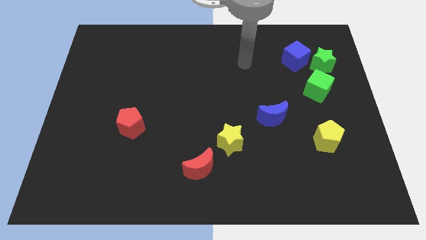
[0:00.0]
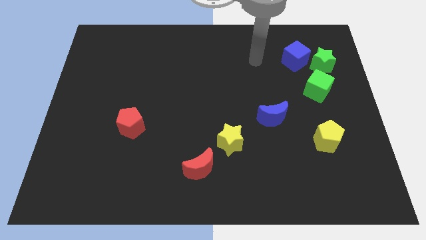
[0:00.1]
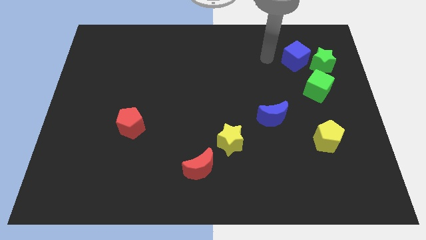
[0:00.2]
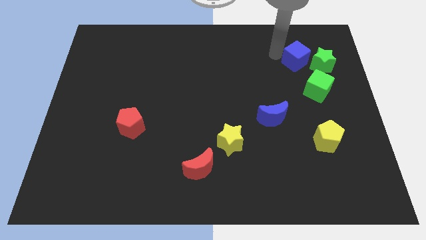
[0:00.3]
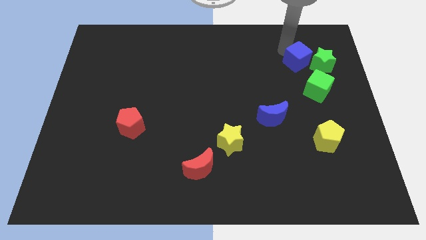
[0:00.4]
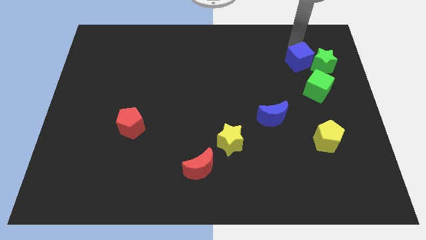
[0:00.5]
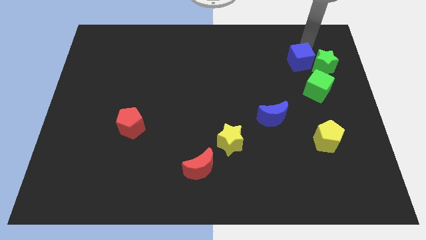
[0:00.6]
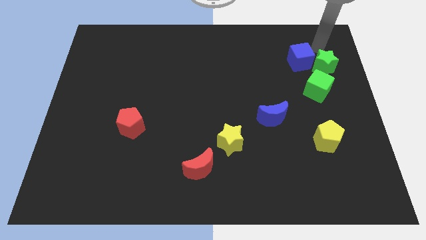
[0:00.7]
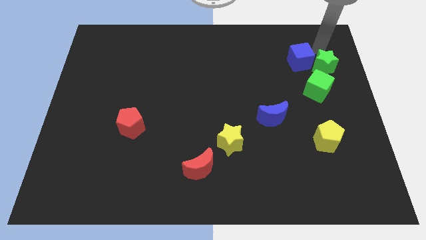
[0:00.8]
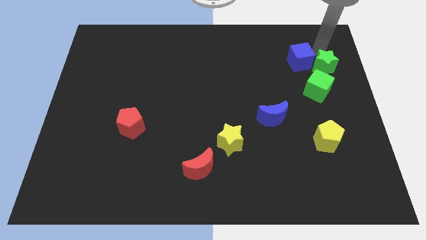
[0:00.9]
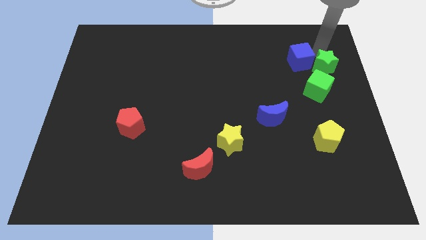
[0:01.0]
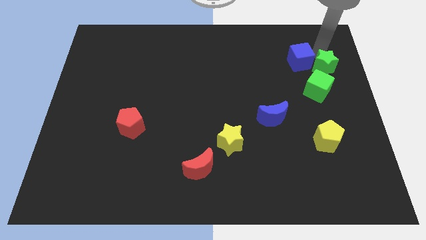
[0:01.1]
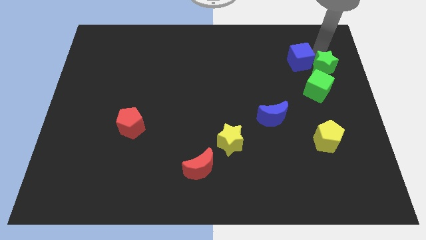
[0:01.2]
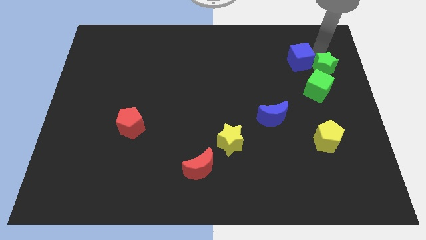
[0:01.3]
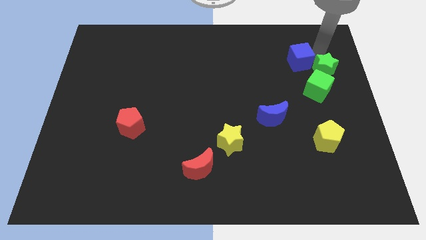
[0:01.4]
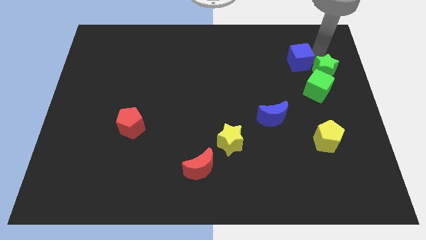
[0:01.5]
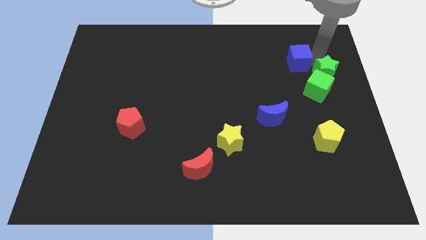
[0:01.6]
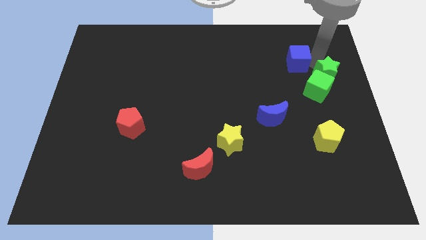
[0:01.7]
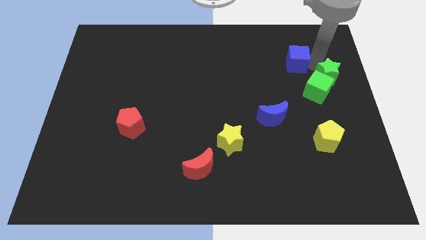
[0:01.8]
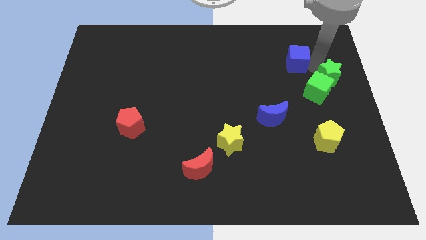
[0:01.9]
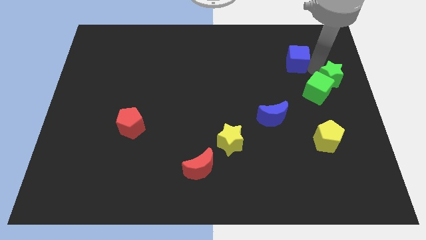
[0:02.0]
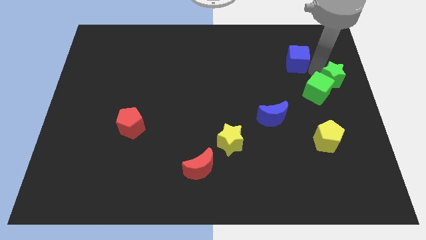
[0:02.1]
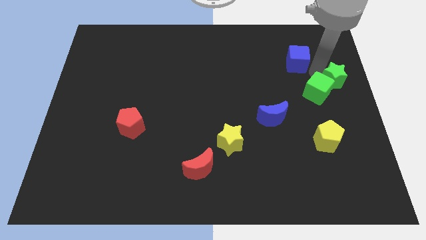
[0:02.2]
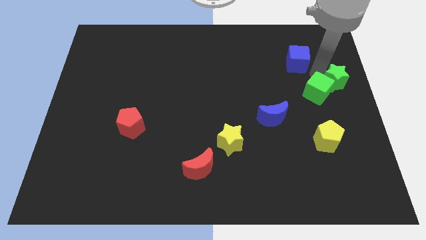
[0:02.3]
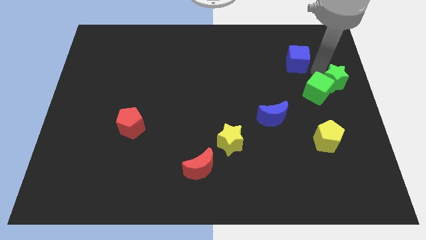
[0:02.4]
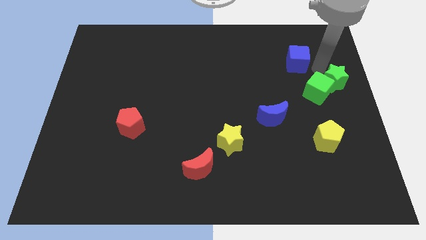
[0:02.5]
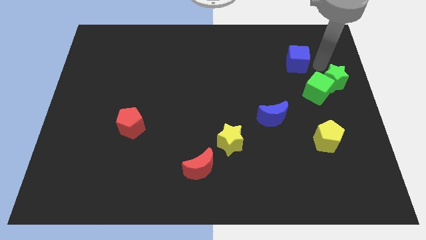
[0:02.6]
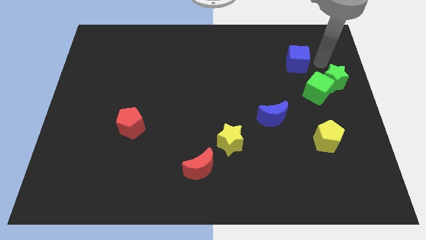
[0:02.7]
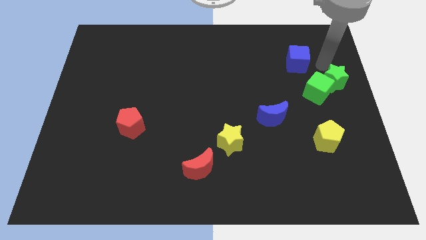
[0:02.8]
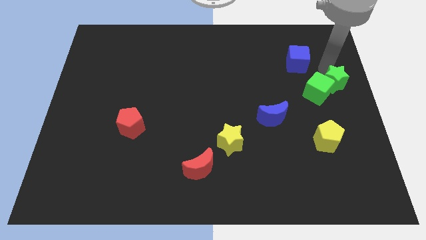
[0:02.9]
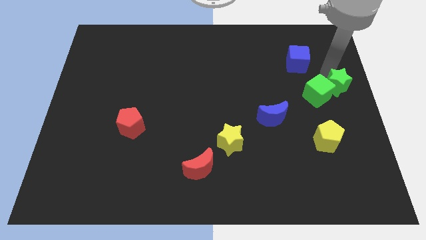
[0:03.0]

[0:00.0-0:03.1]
push the green star a bit down

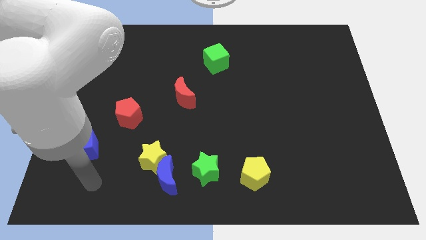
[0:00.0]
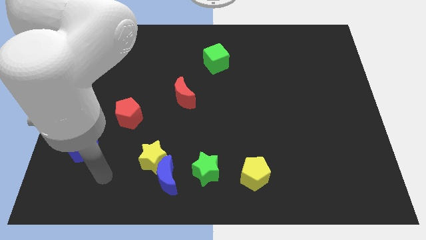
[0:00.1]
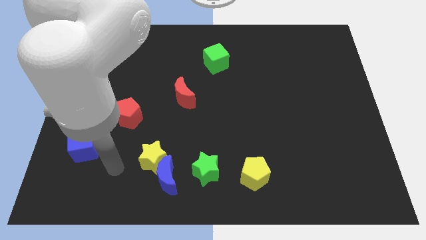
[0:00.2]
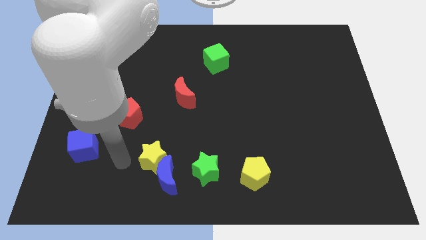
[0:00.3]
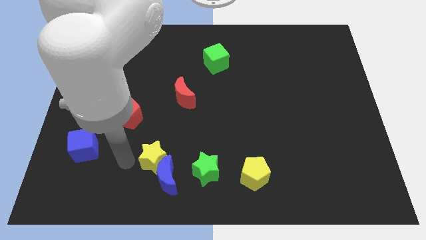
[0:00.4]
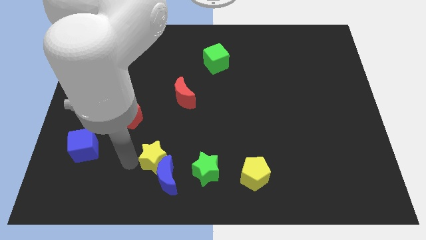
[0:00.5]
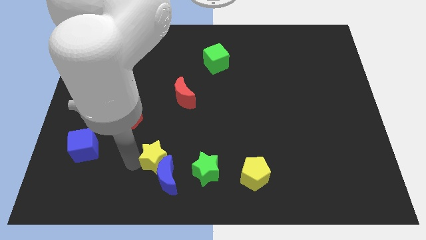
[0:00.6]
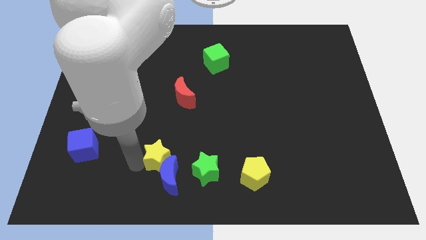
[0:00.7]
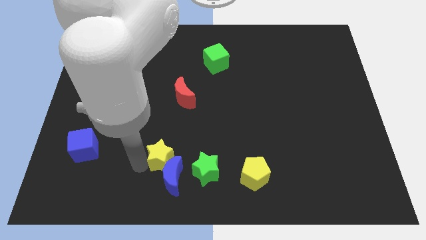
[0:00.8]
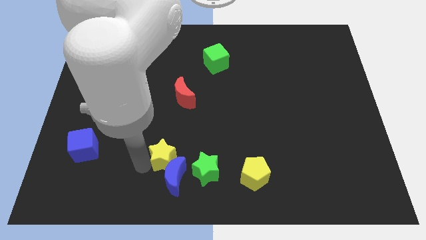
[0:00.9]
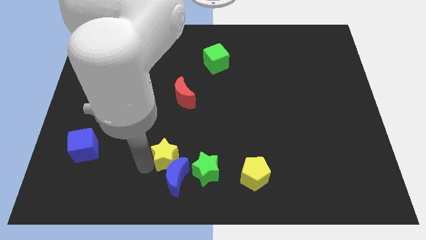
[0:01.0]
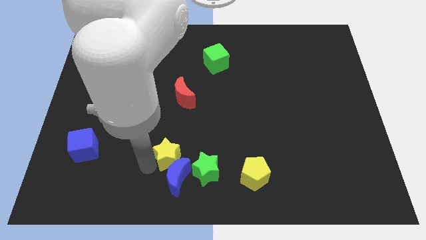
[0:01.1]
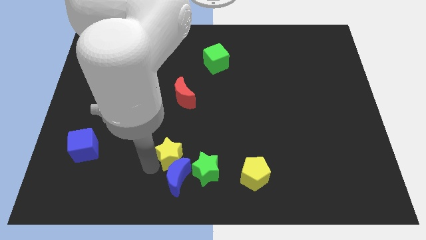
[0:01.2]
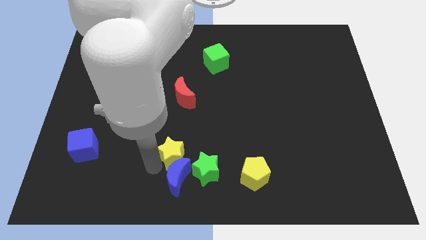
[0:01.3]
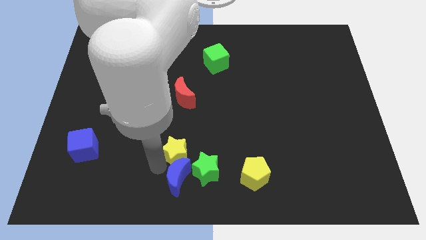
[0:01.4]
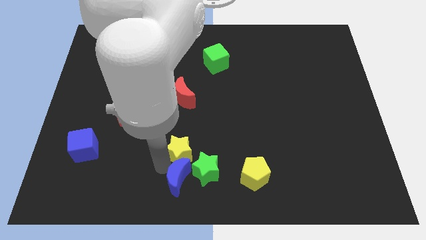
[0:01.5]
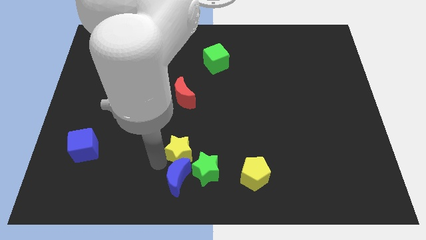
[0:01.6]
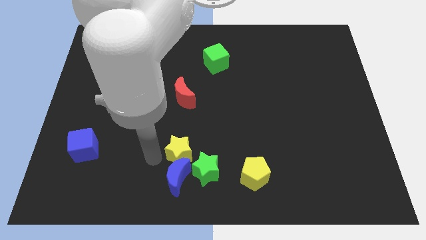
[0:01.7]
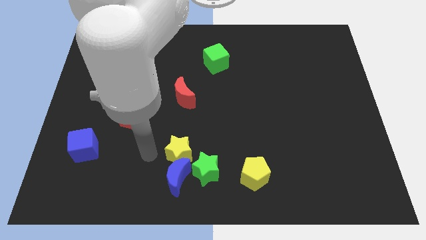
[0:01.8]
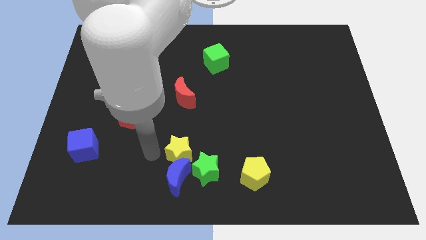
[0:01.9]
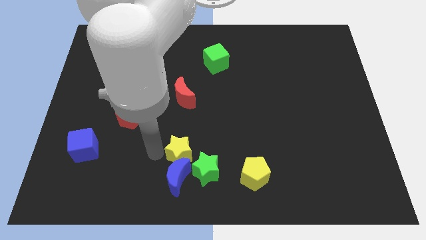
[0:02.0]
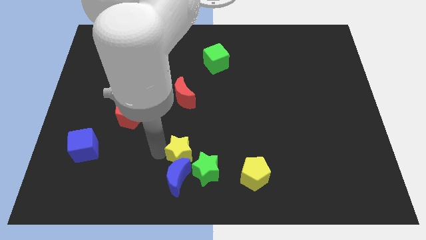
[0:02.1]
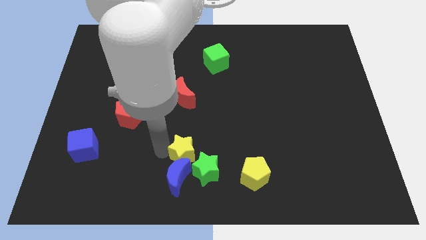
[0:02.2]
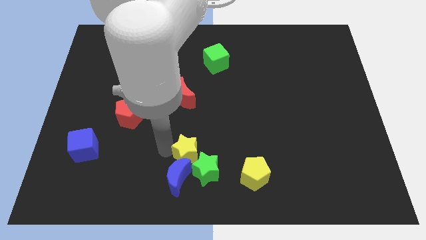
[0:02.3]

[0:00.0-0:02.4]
move the yellow star right a bit

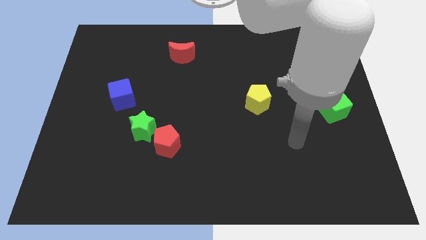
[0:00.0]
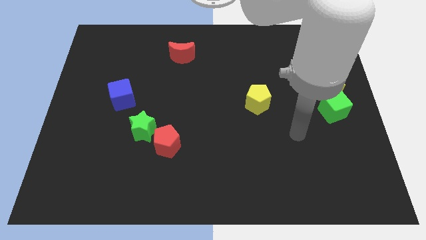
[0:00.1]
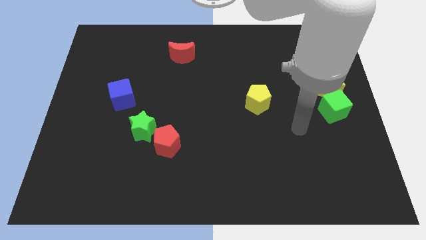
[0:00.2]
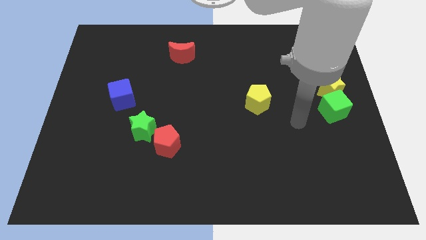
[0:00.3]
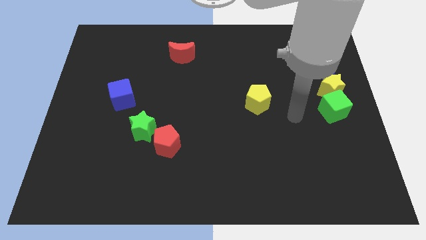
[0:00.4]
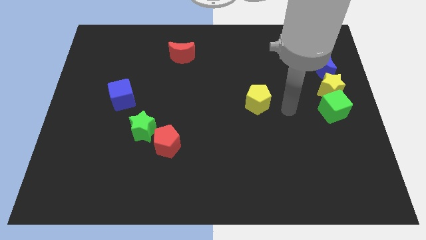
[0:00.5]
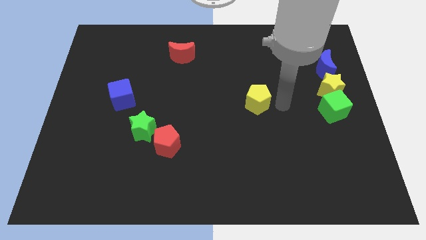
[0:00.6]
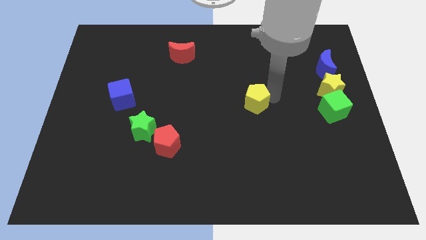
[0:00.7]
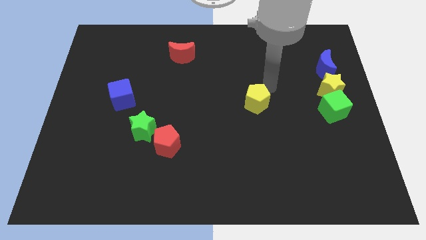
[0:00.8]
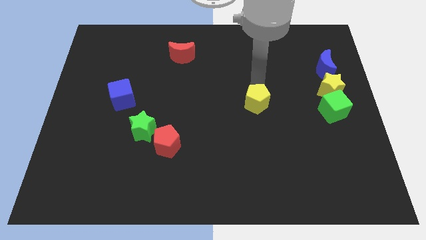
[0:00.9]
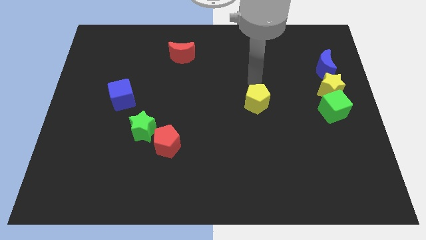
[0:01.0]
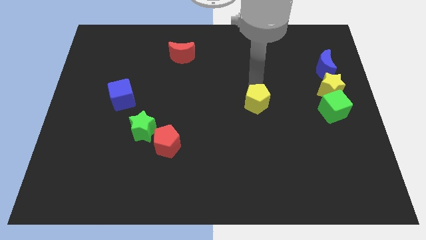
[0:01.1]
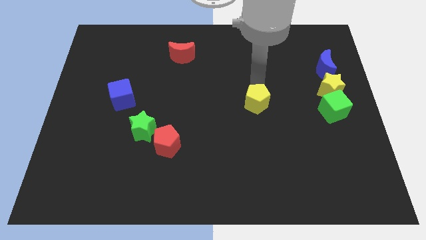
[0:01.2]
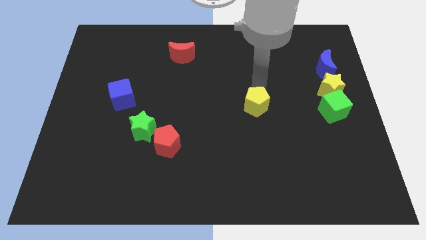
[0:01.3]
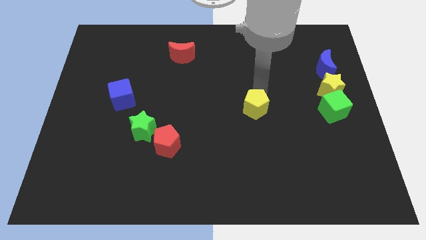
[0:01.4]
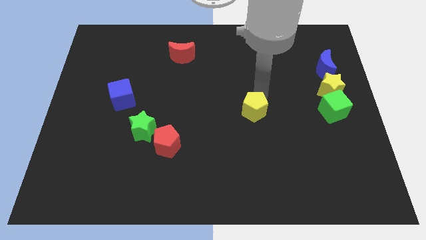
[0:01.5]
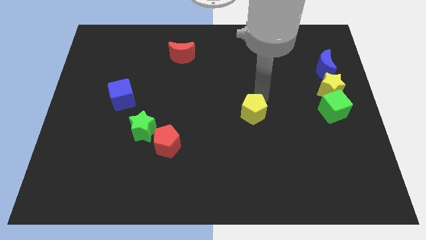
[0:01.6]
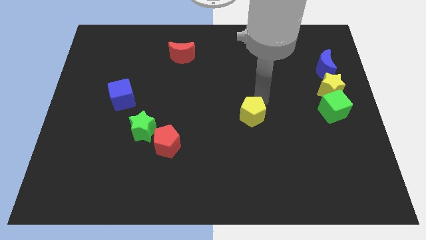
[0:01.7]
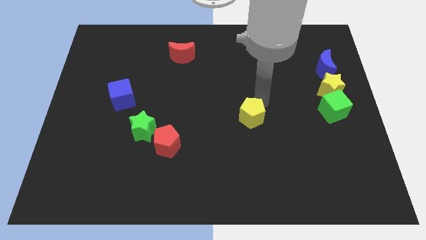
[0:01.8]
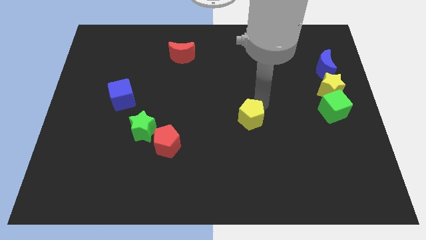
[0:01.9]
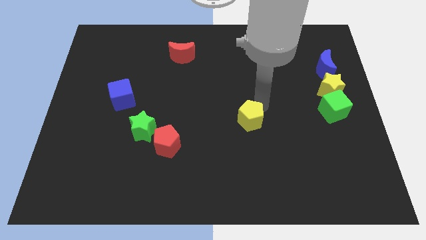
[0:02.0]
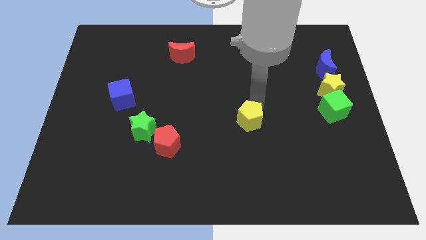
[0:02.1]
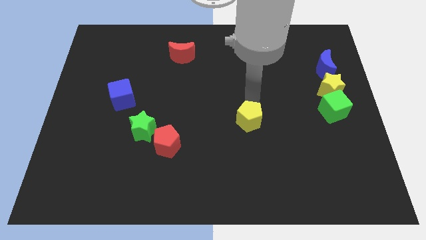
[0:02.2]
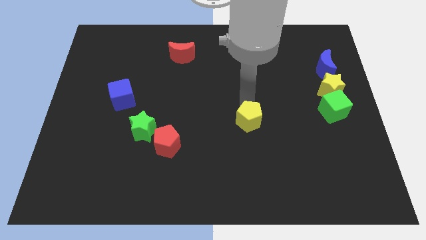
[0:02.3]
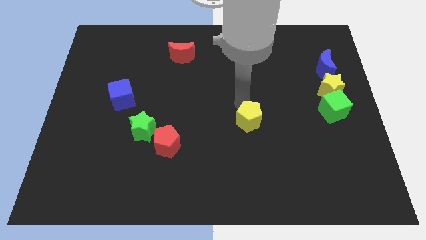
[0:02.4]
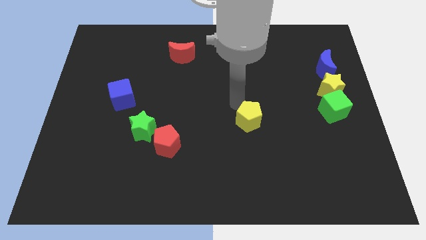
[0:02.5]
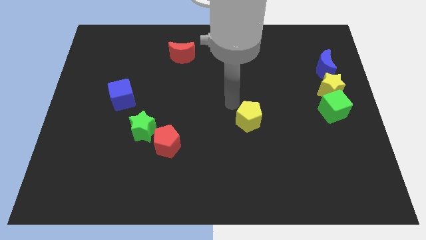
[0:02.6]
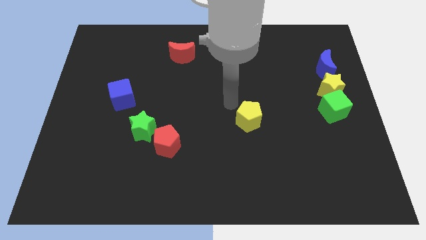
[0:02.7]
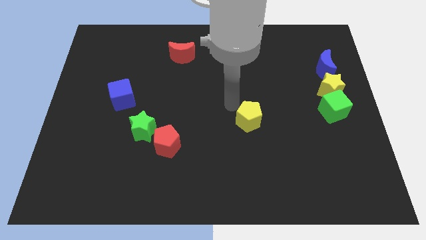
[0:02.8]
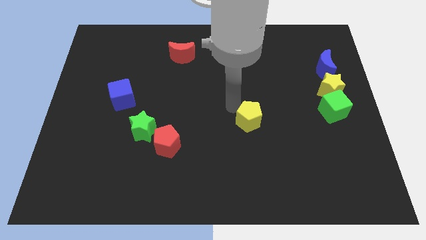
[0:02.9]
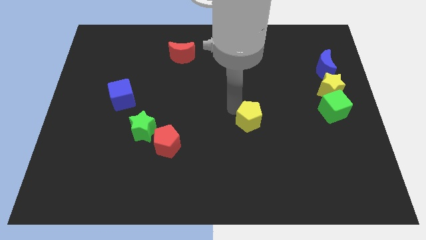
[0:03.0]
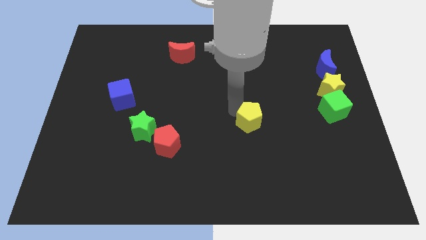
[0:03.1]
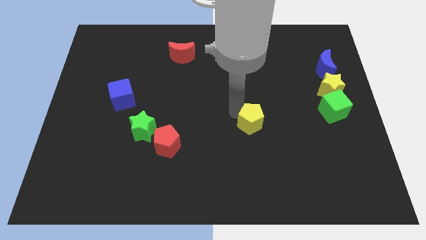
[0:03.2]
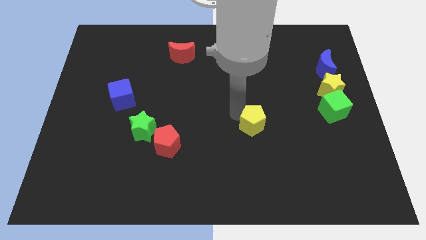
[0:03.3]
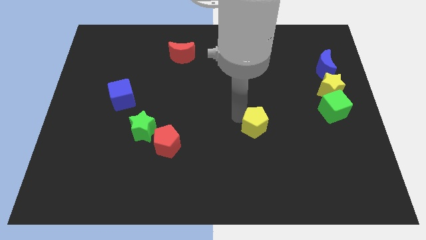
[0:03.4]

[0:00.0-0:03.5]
slightly slide the yellow pentagon down
